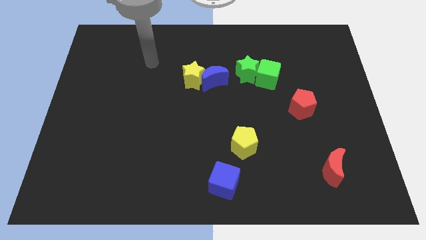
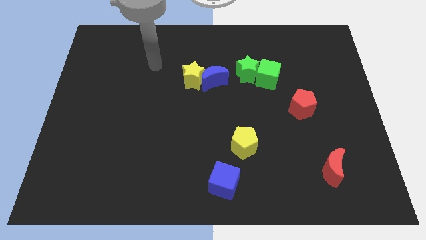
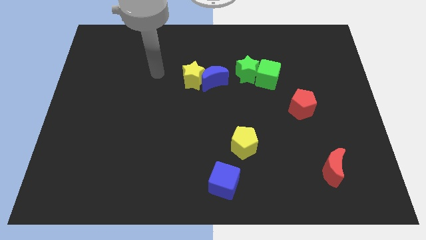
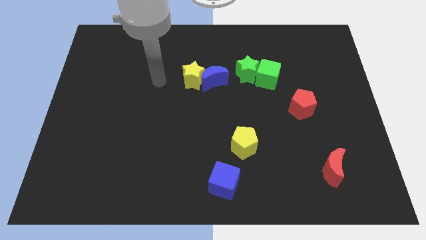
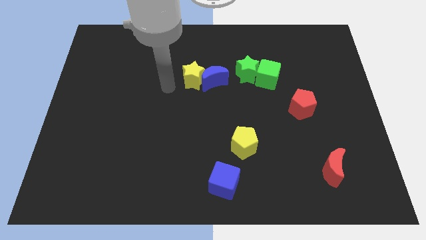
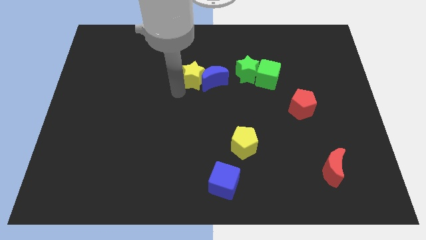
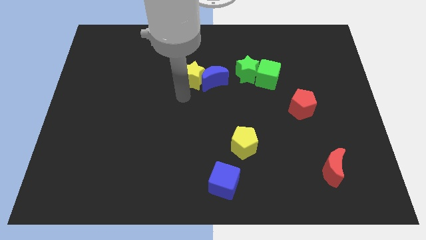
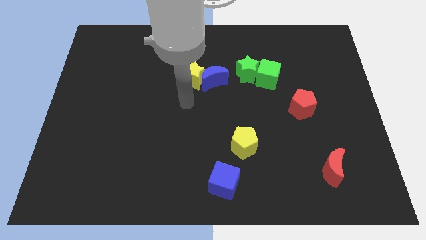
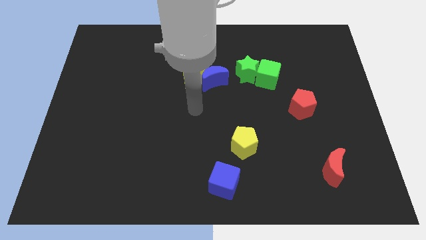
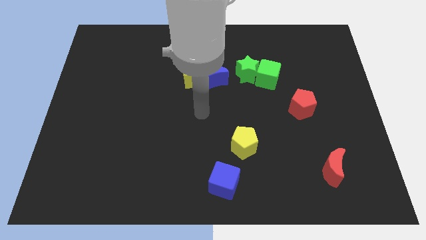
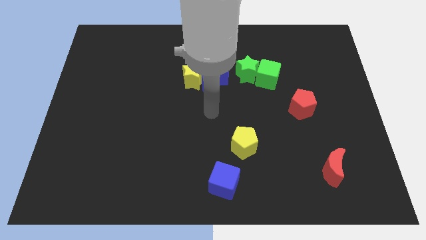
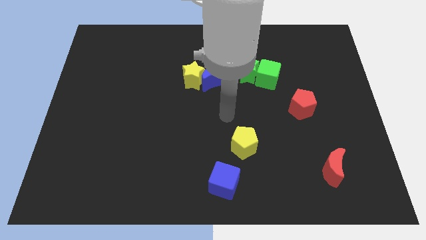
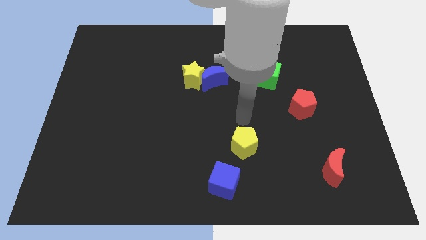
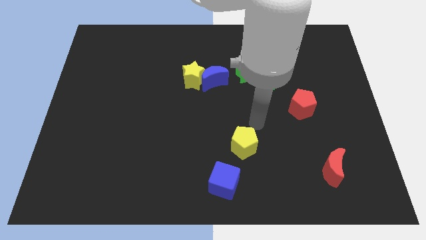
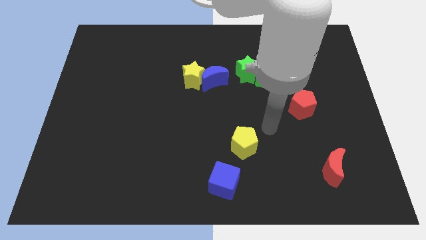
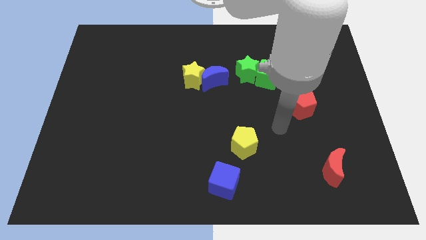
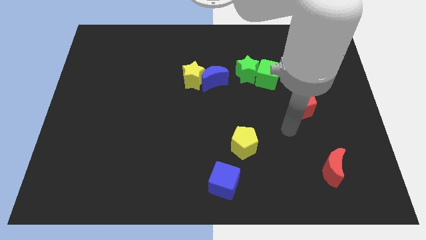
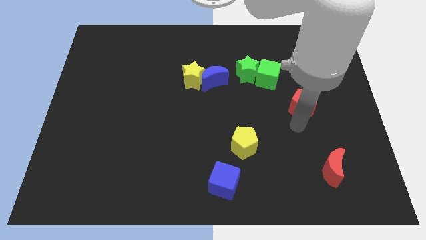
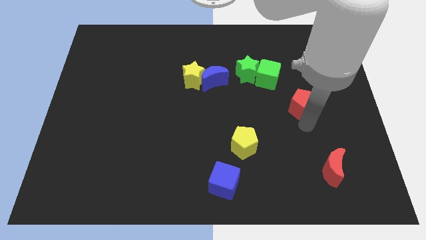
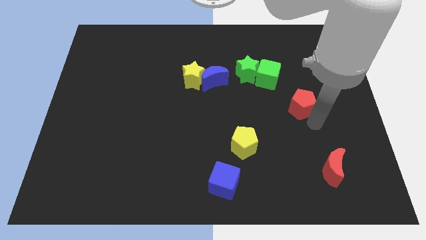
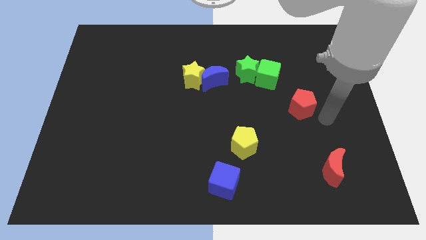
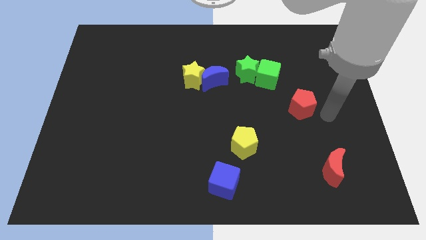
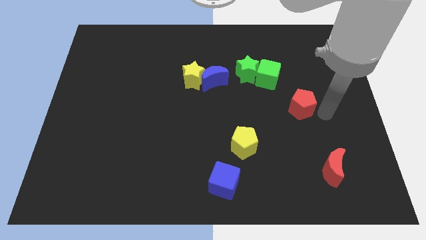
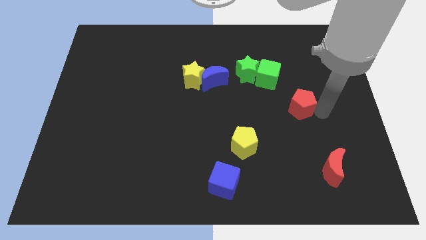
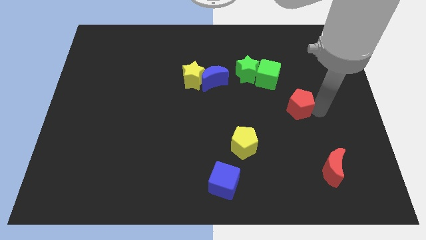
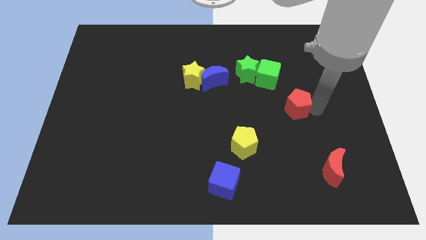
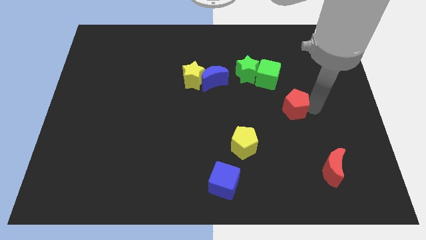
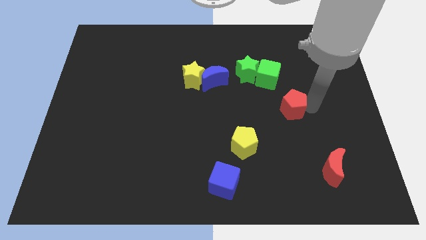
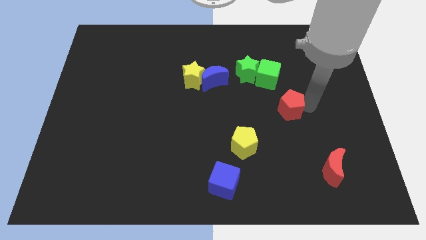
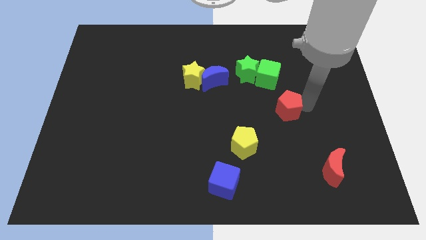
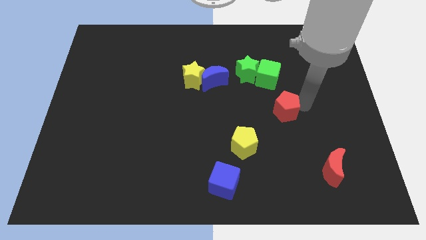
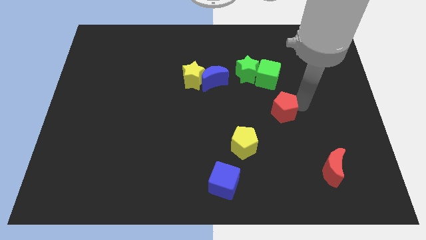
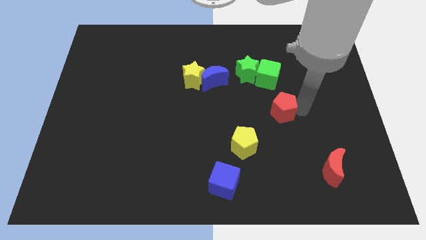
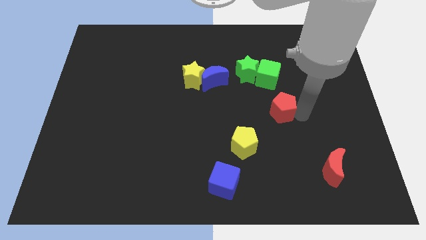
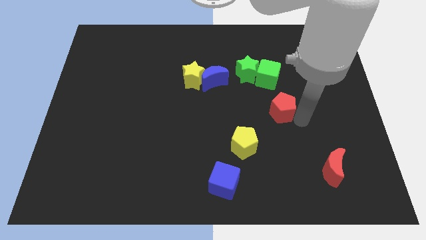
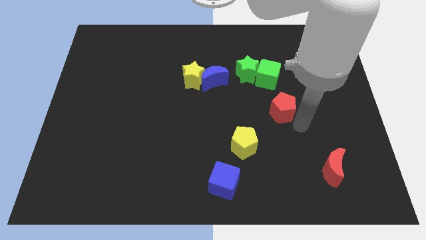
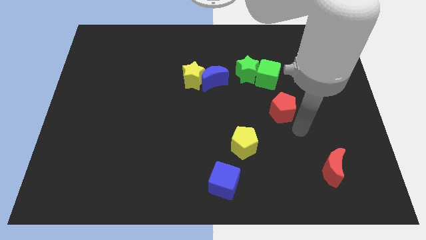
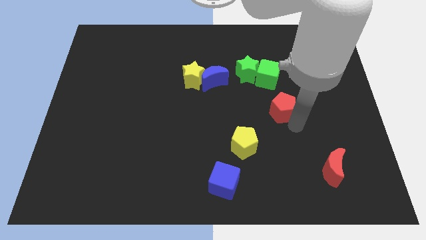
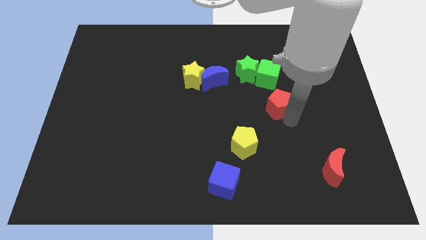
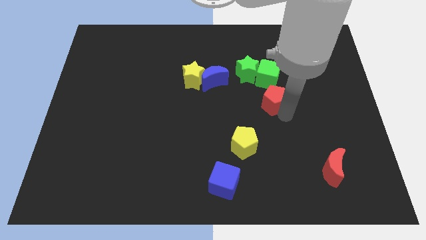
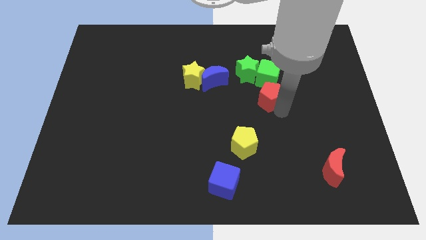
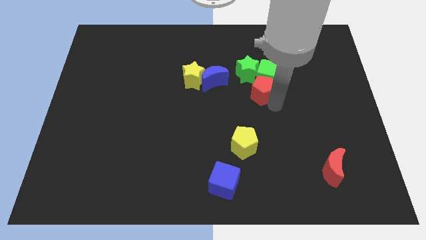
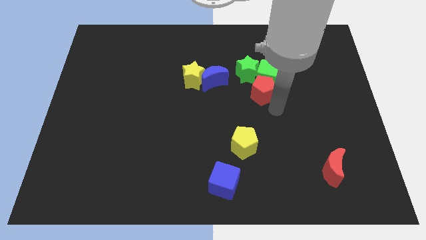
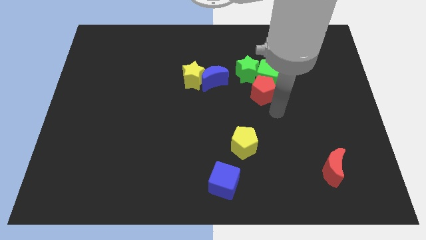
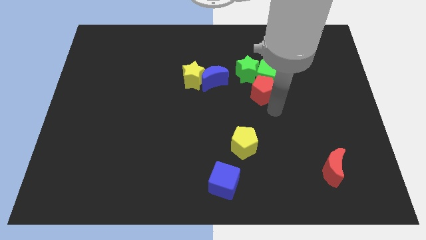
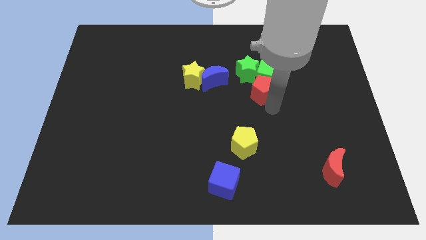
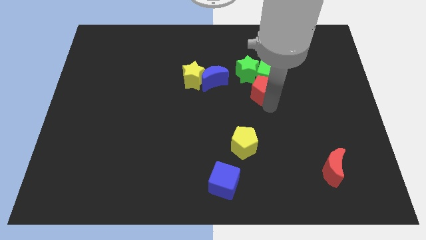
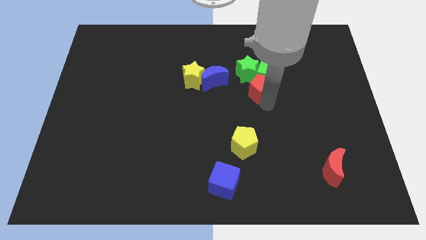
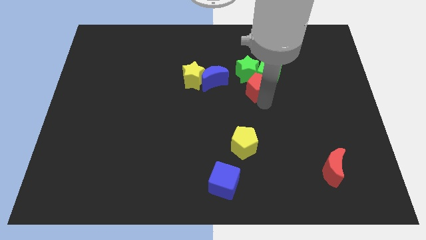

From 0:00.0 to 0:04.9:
push the red pentagon towards the green star

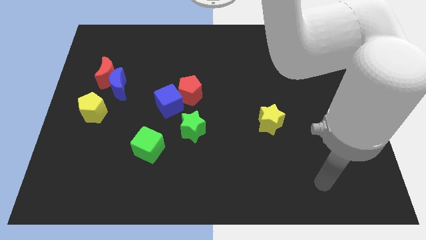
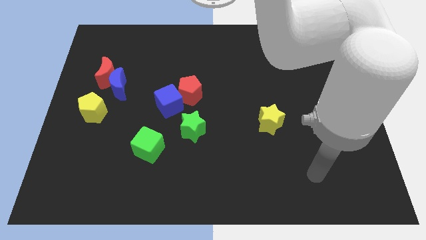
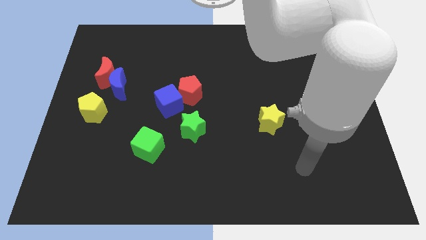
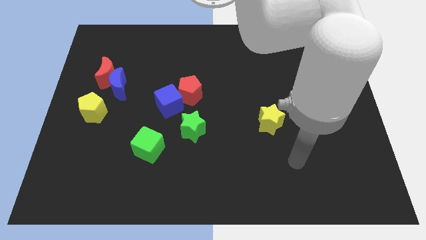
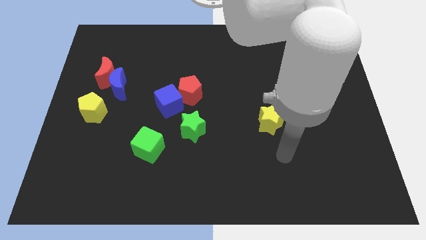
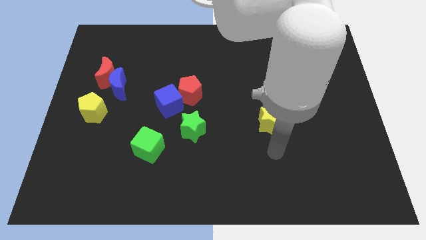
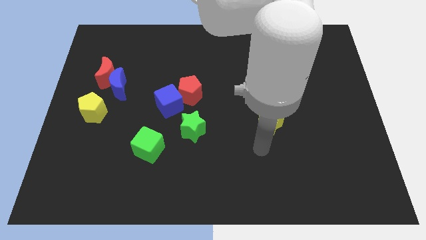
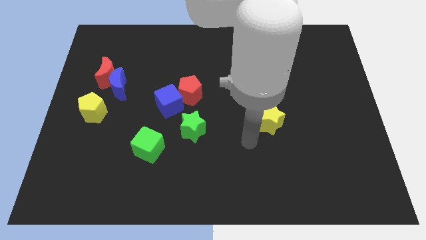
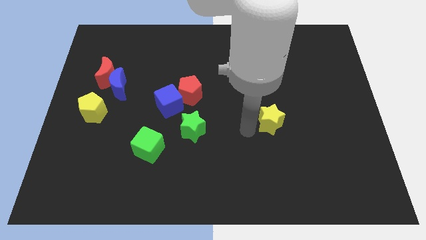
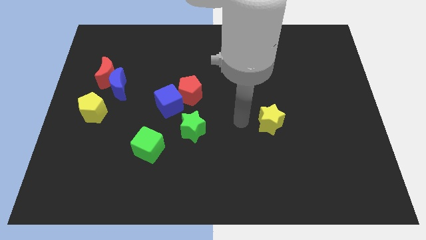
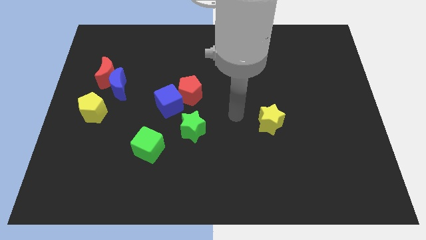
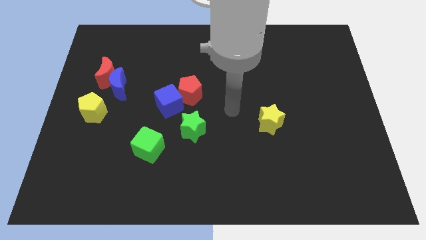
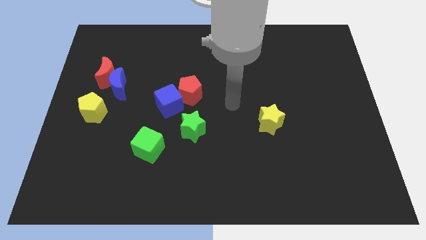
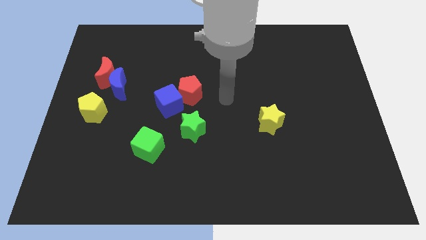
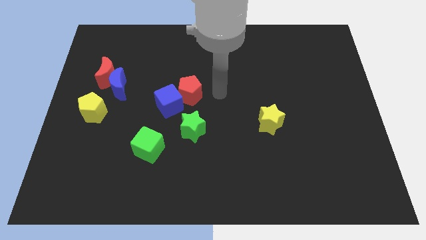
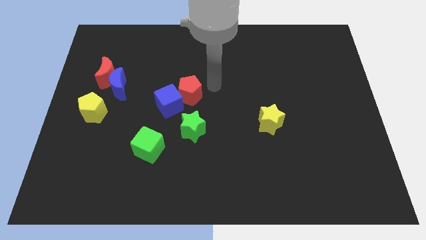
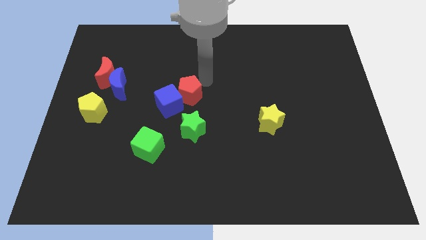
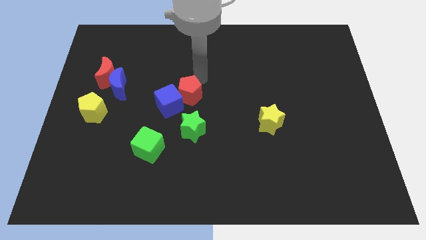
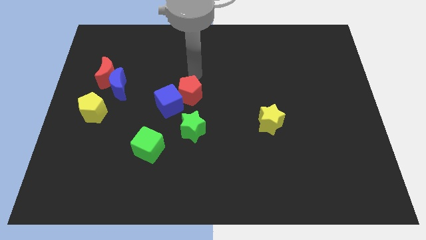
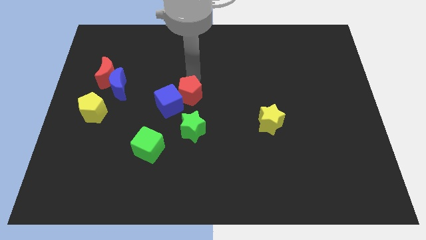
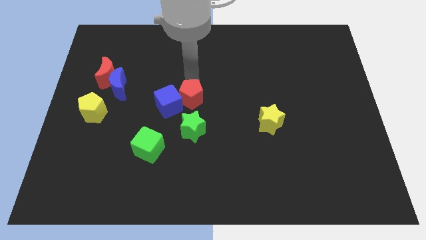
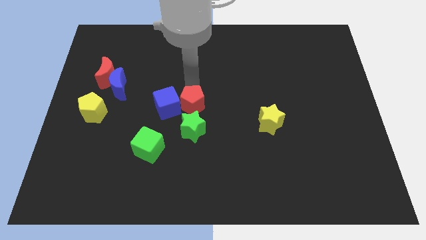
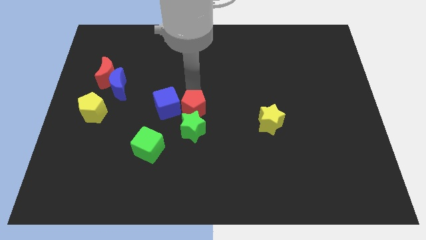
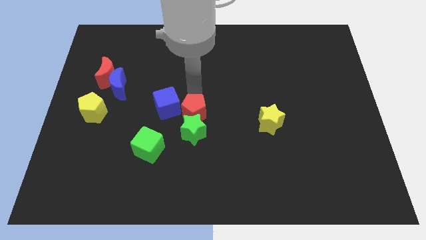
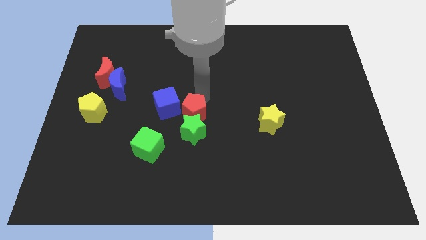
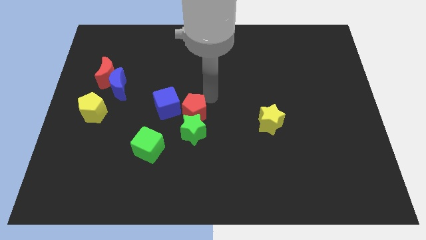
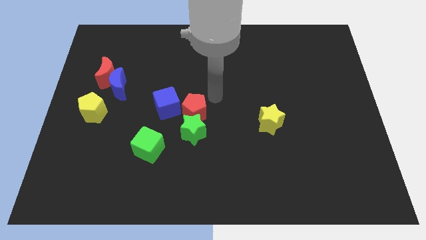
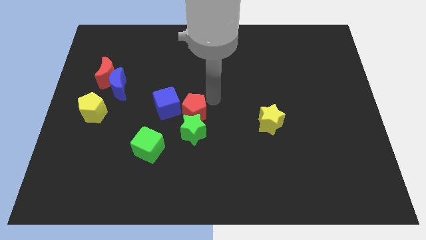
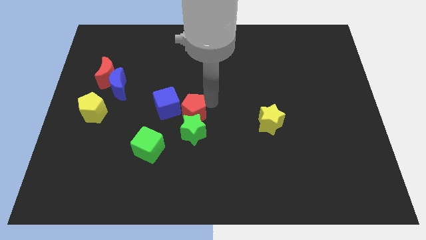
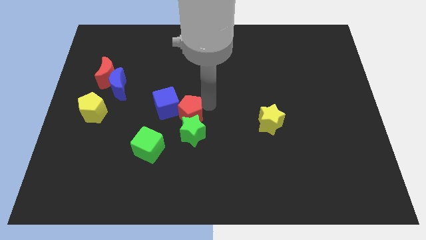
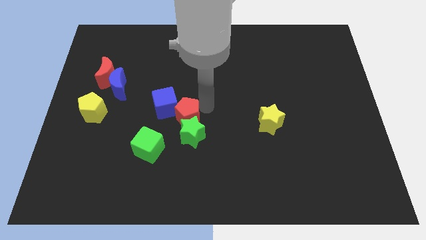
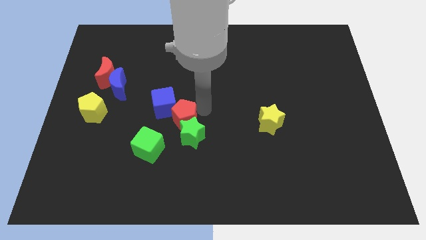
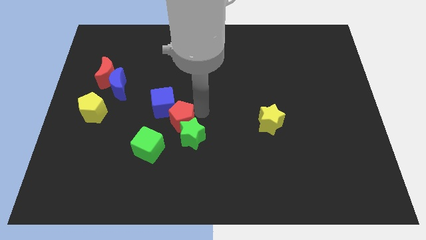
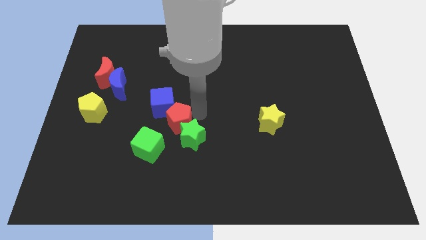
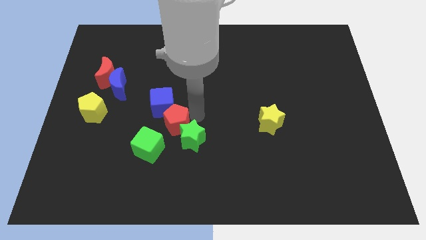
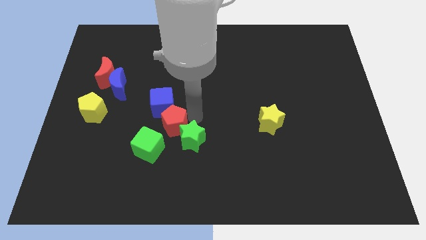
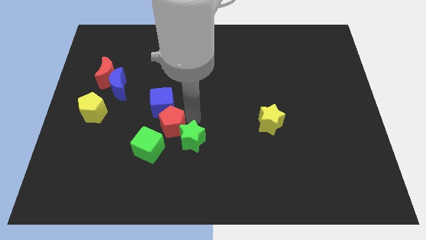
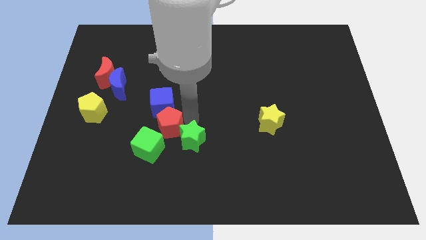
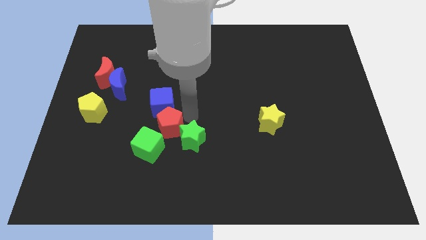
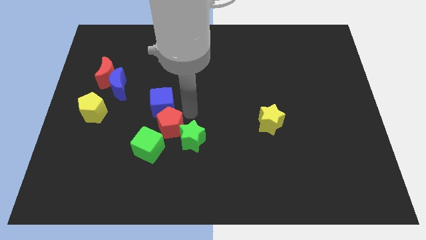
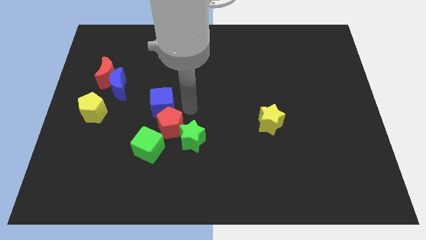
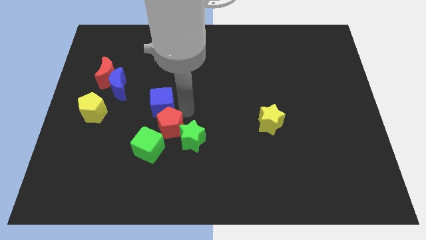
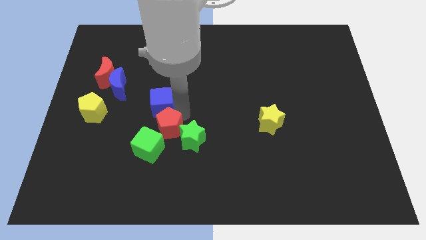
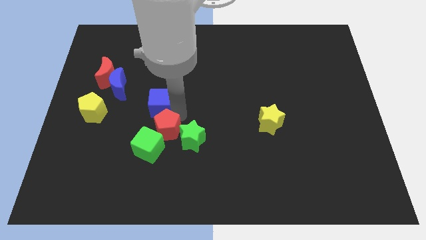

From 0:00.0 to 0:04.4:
push the red pentagon towards the green cube
